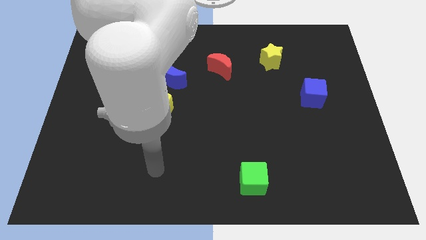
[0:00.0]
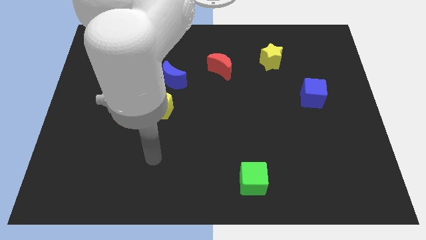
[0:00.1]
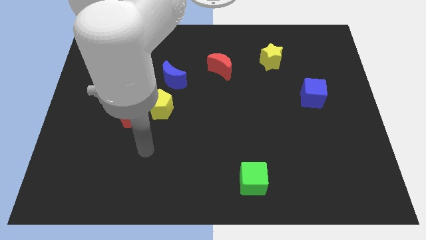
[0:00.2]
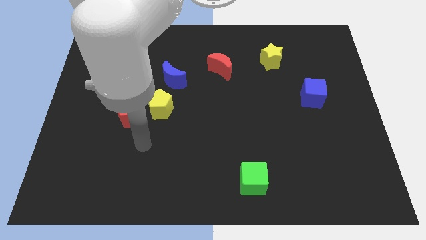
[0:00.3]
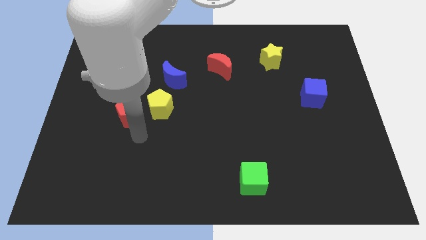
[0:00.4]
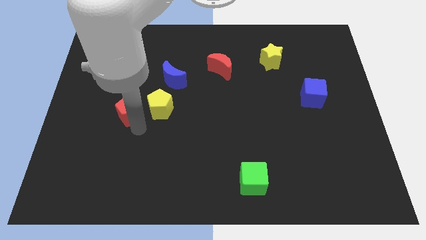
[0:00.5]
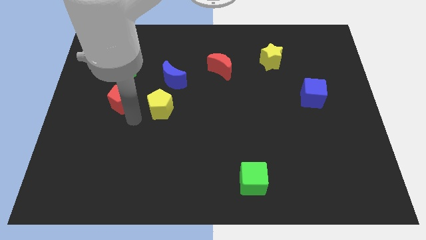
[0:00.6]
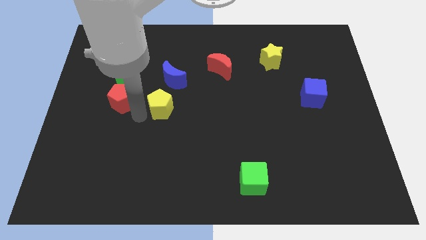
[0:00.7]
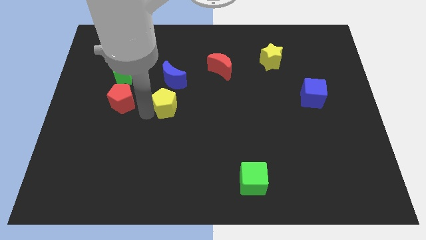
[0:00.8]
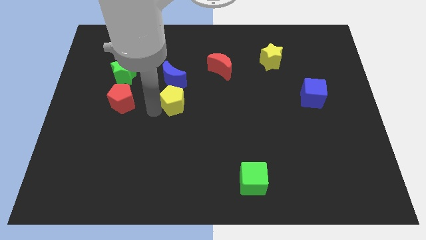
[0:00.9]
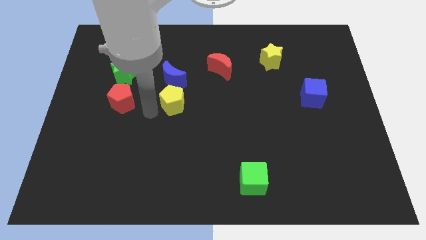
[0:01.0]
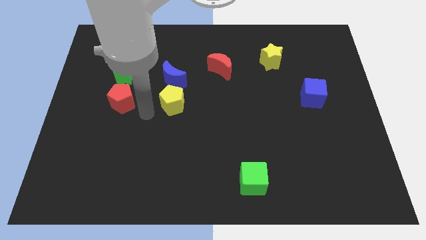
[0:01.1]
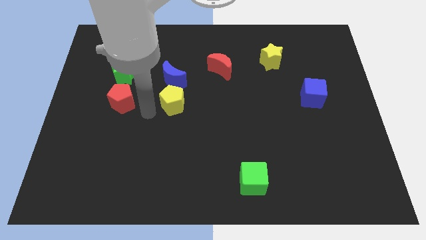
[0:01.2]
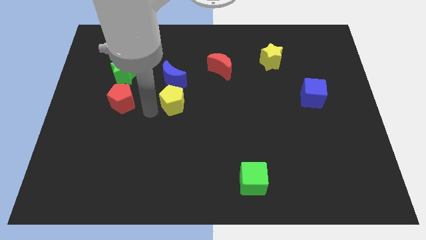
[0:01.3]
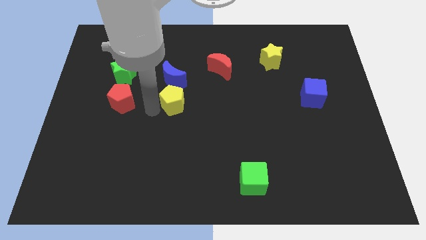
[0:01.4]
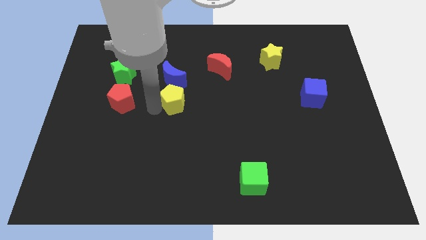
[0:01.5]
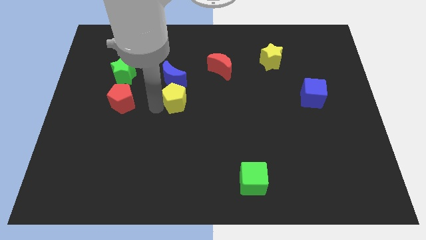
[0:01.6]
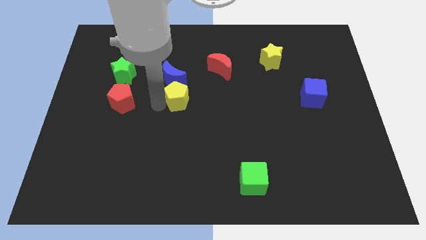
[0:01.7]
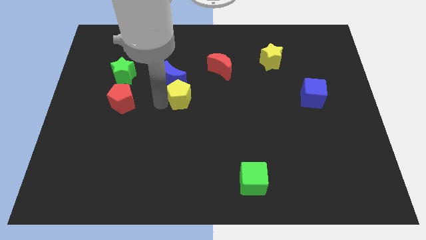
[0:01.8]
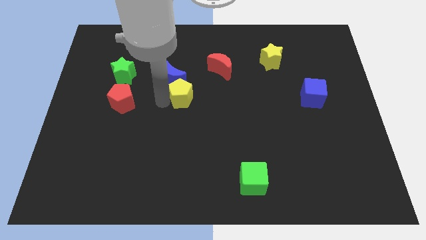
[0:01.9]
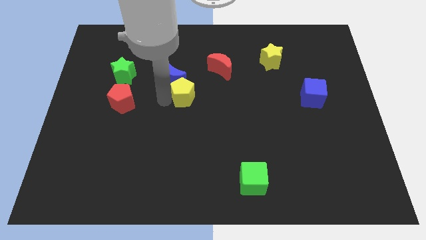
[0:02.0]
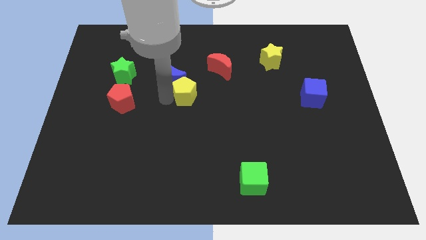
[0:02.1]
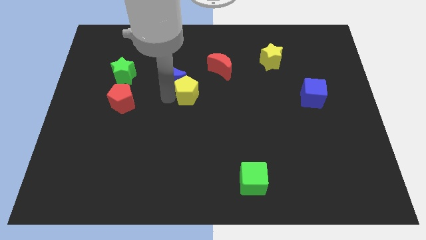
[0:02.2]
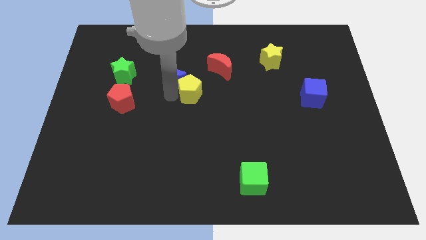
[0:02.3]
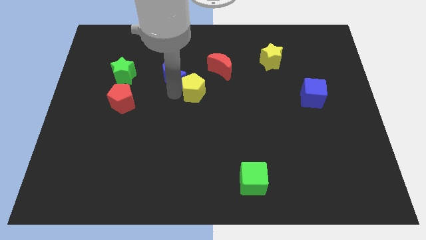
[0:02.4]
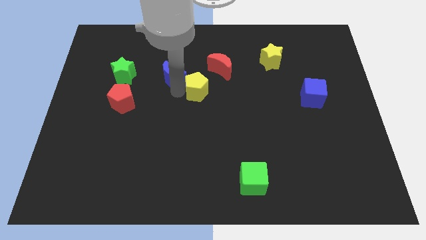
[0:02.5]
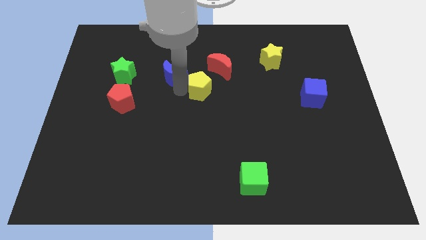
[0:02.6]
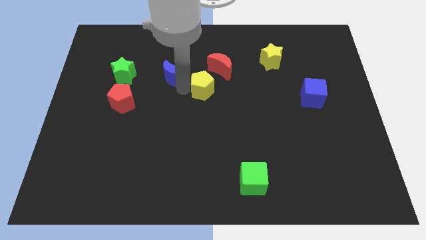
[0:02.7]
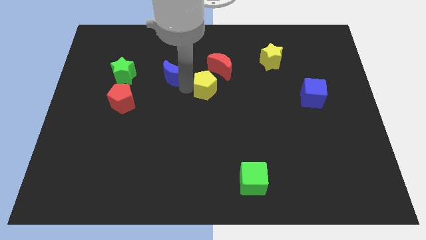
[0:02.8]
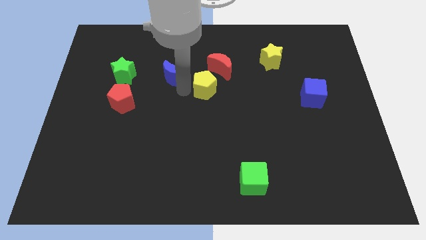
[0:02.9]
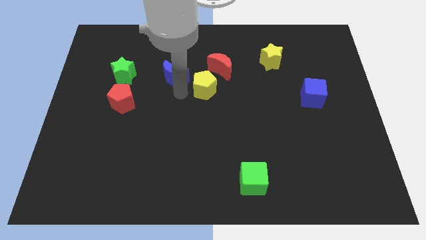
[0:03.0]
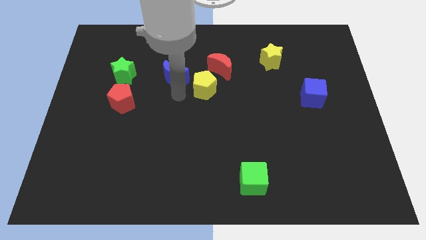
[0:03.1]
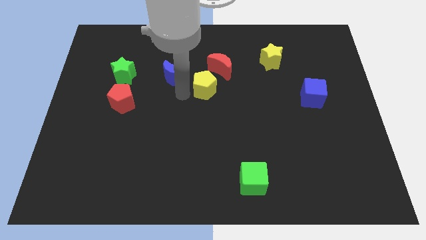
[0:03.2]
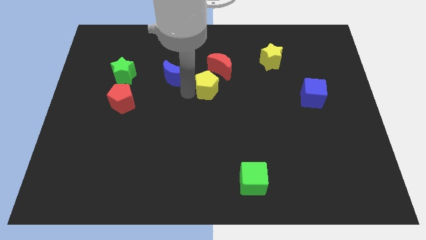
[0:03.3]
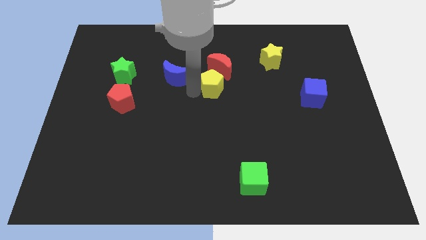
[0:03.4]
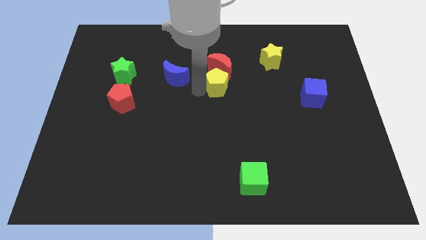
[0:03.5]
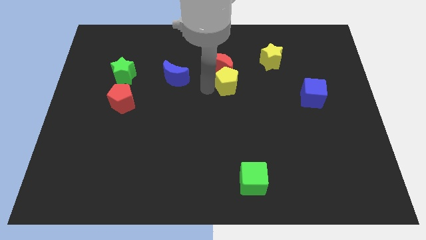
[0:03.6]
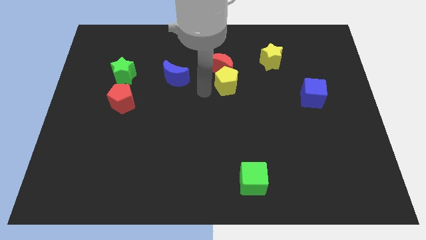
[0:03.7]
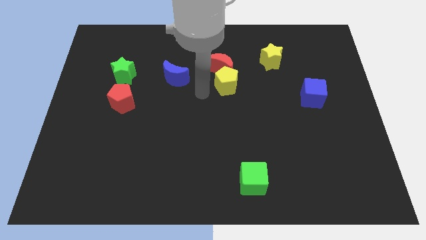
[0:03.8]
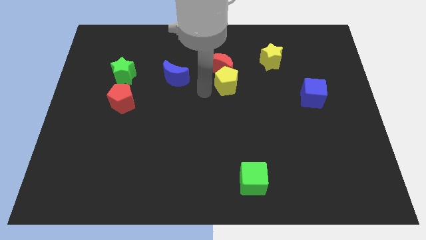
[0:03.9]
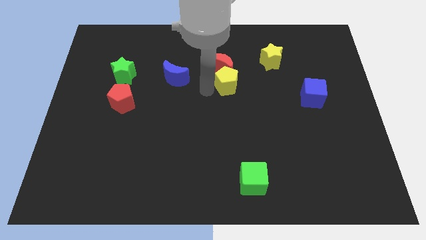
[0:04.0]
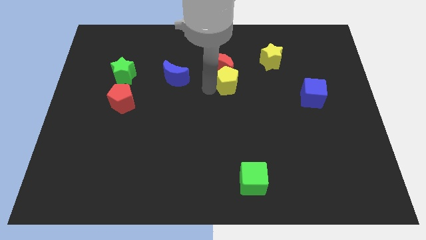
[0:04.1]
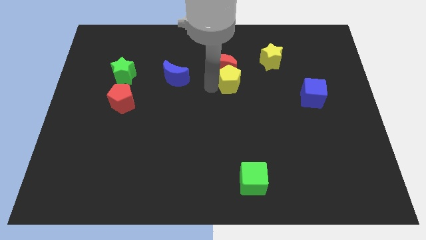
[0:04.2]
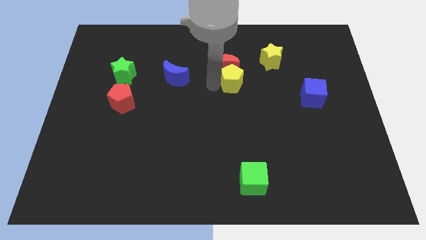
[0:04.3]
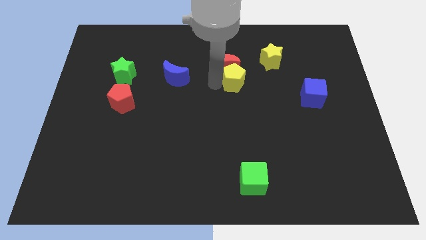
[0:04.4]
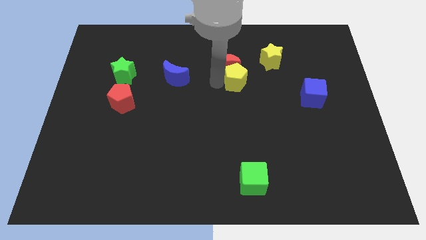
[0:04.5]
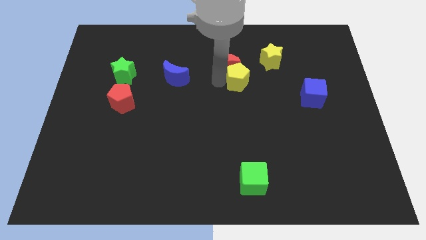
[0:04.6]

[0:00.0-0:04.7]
move the yellow pentagon right of the red moon

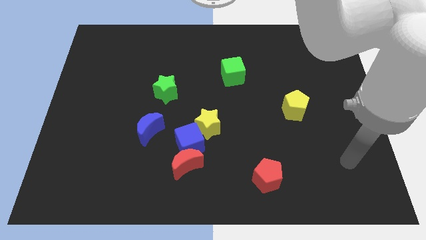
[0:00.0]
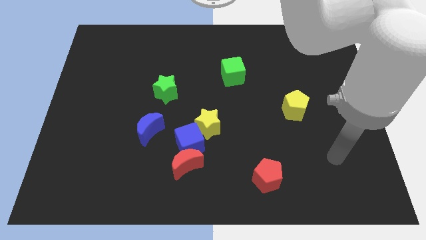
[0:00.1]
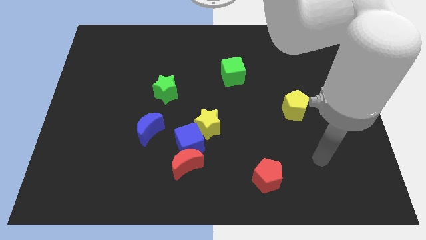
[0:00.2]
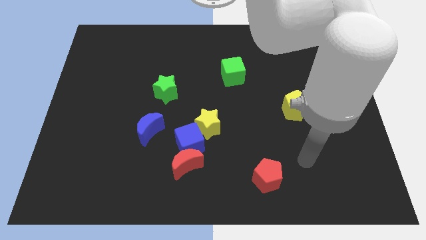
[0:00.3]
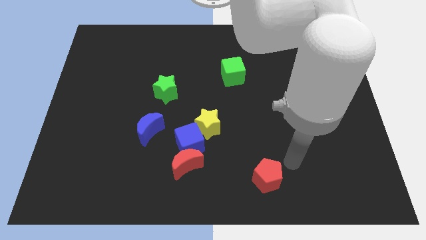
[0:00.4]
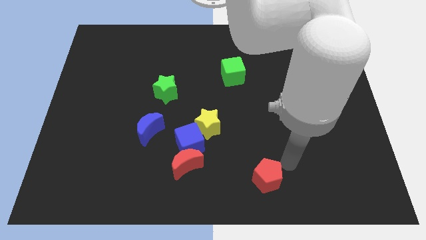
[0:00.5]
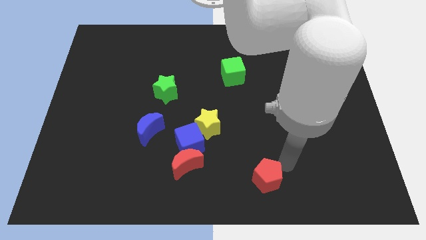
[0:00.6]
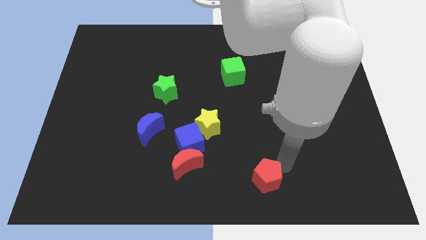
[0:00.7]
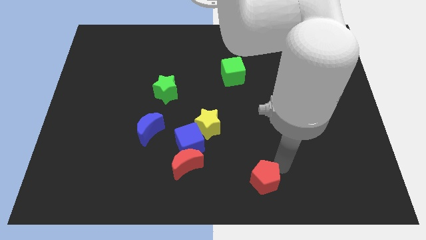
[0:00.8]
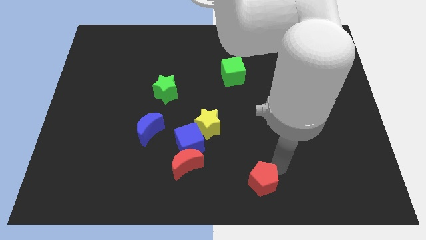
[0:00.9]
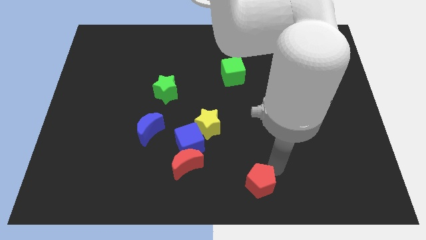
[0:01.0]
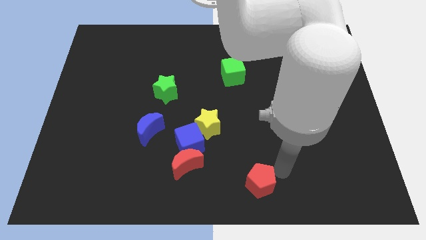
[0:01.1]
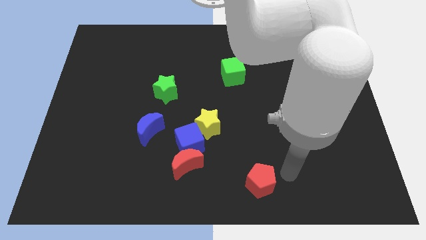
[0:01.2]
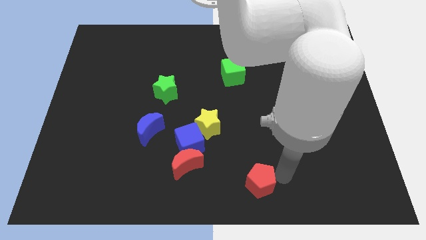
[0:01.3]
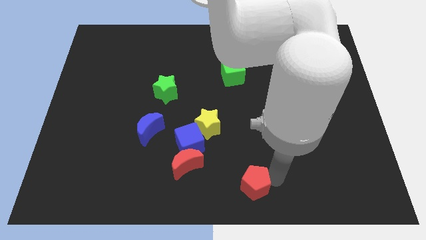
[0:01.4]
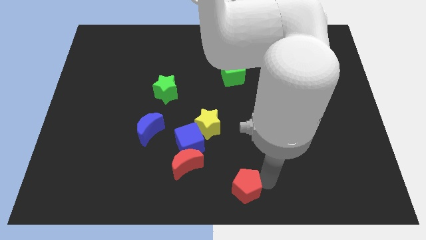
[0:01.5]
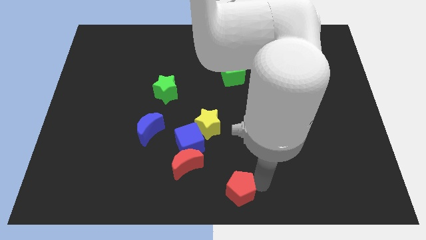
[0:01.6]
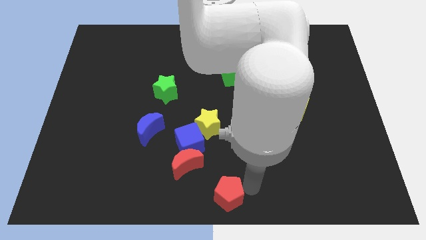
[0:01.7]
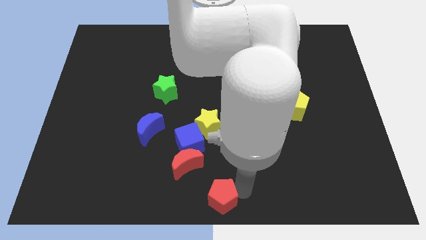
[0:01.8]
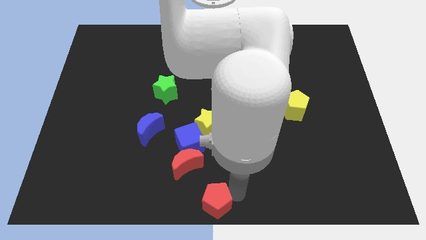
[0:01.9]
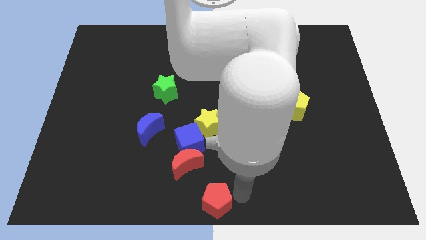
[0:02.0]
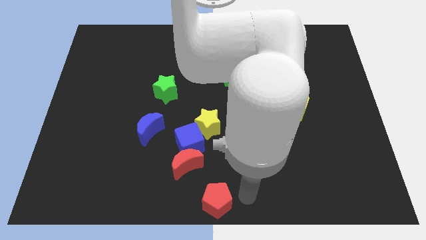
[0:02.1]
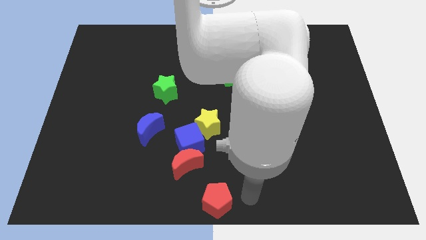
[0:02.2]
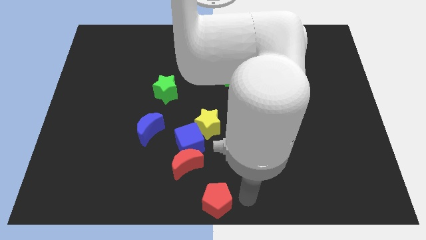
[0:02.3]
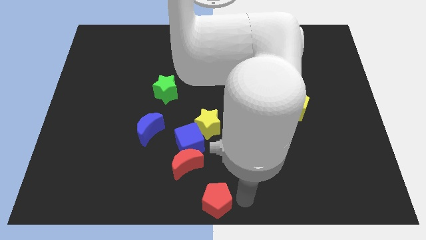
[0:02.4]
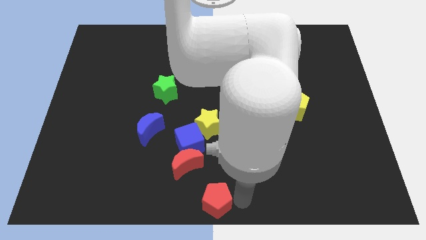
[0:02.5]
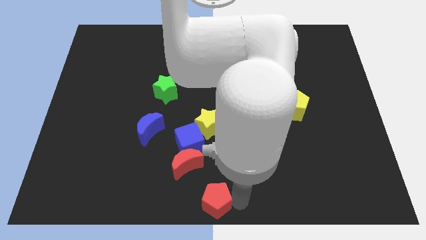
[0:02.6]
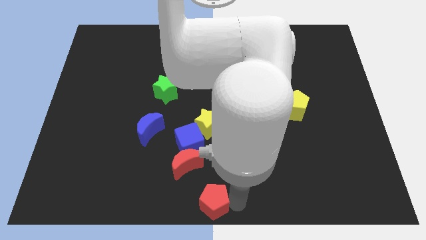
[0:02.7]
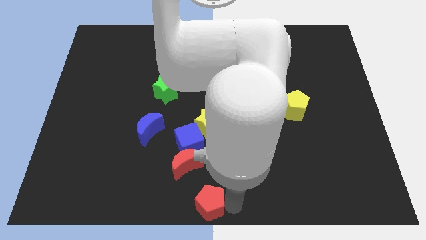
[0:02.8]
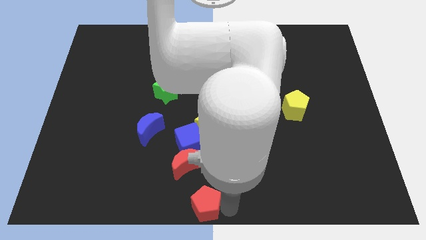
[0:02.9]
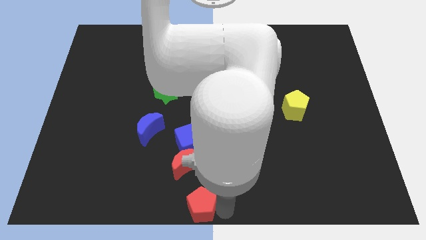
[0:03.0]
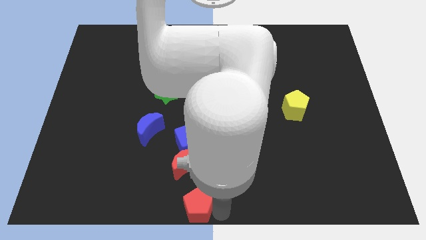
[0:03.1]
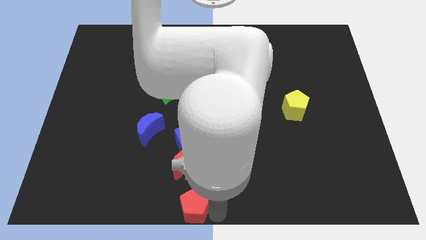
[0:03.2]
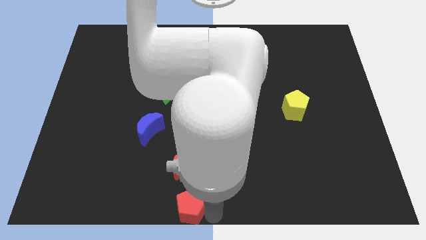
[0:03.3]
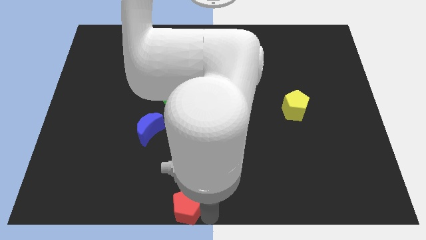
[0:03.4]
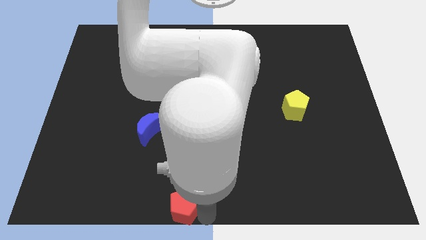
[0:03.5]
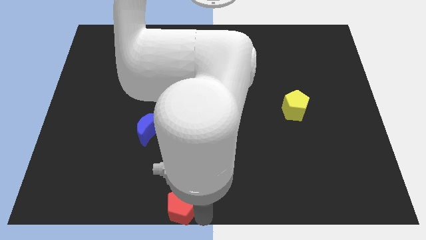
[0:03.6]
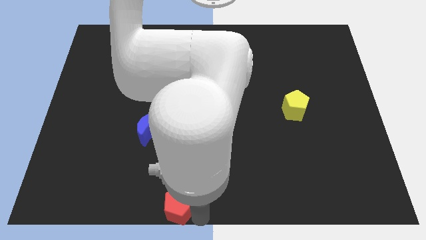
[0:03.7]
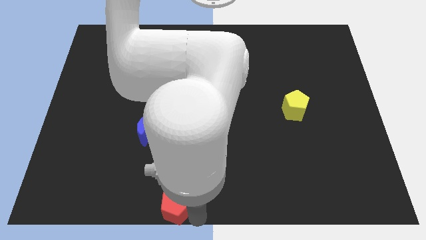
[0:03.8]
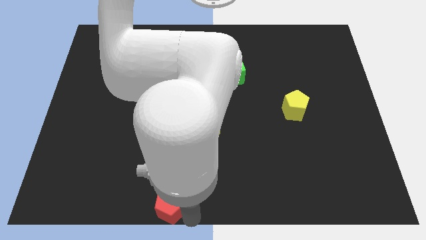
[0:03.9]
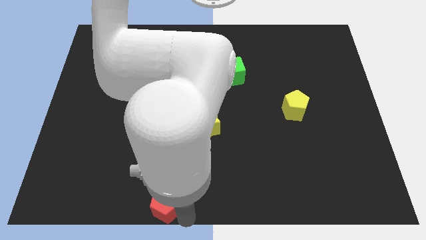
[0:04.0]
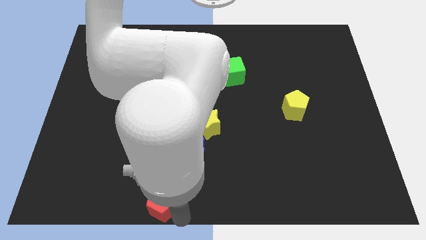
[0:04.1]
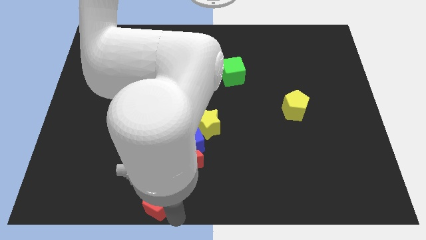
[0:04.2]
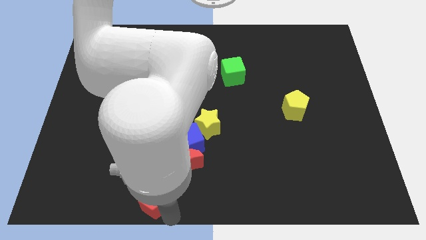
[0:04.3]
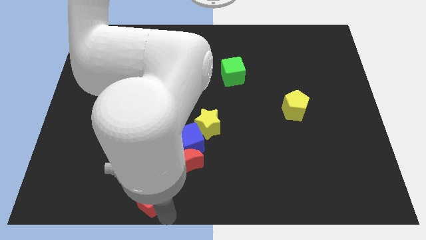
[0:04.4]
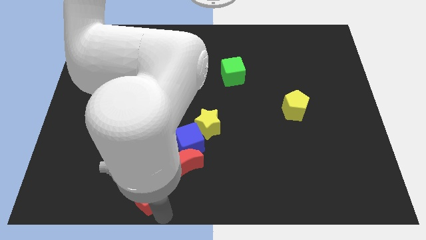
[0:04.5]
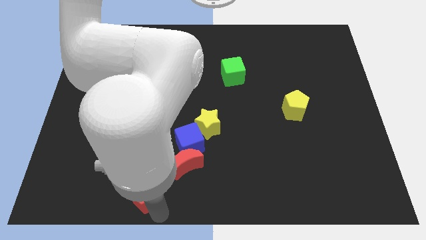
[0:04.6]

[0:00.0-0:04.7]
slide the red pentagon to the bottom side of the blue moon
